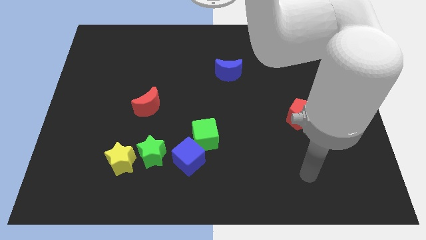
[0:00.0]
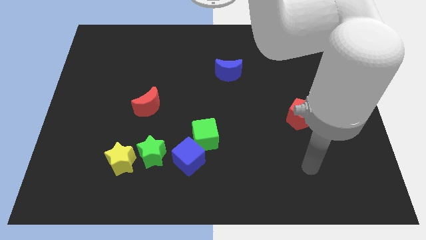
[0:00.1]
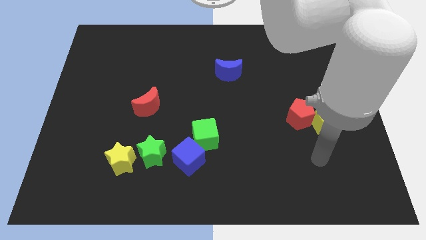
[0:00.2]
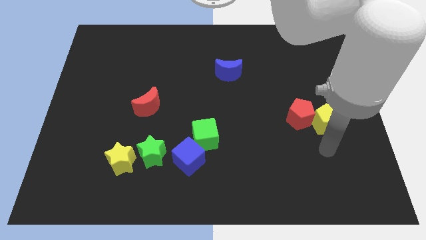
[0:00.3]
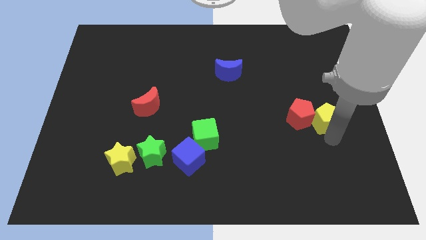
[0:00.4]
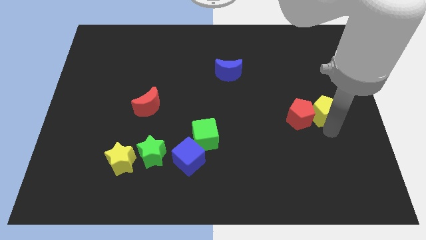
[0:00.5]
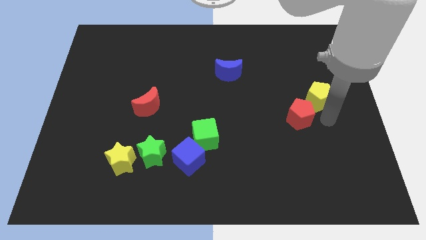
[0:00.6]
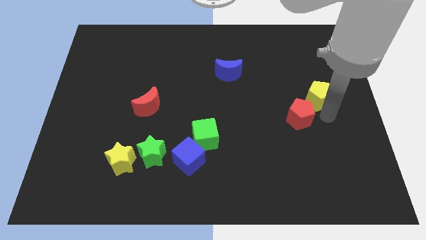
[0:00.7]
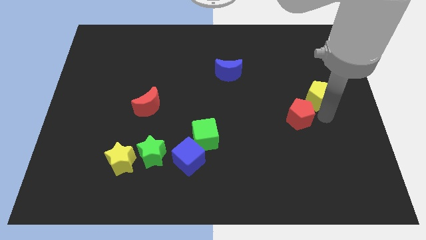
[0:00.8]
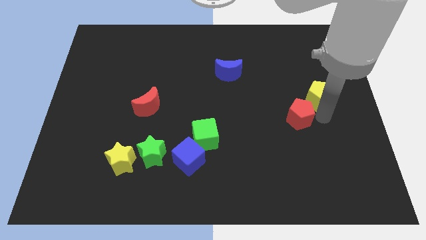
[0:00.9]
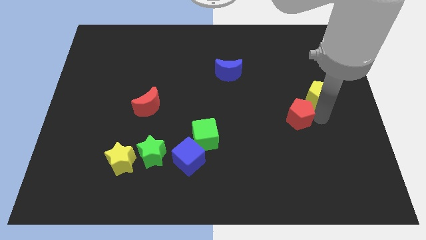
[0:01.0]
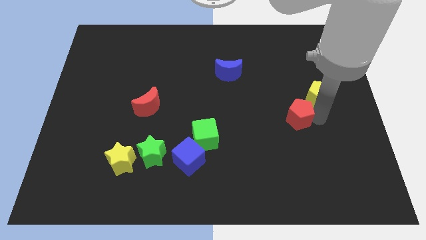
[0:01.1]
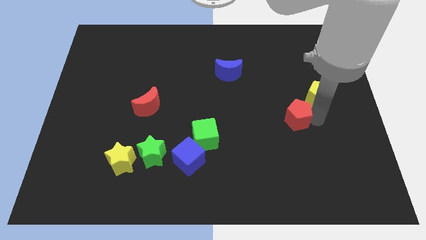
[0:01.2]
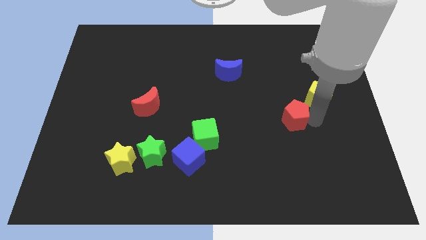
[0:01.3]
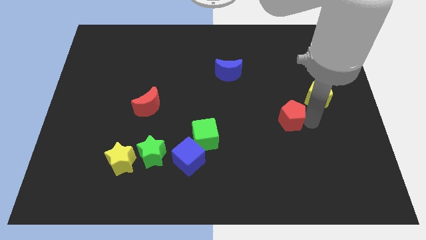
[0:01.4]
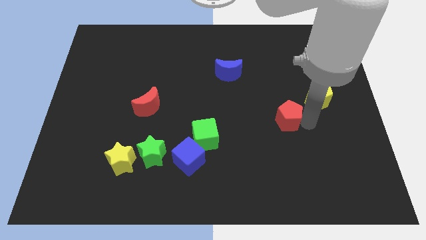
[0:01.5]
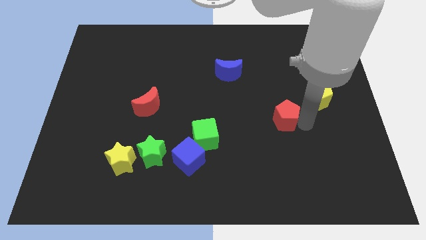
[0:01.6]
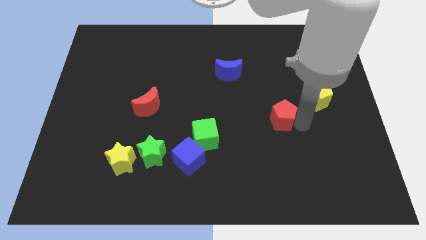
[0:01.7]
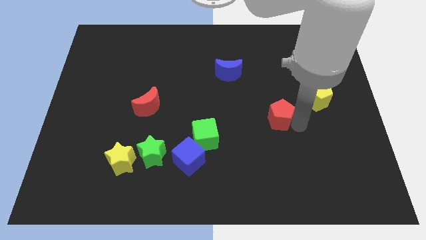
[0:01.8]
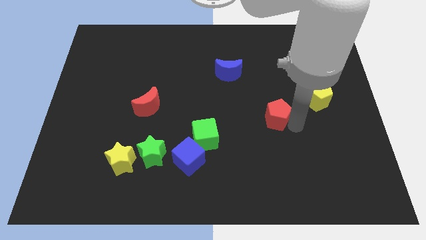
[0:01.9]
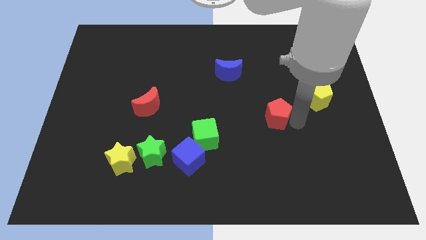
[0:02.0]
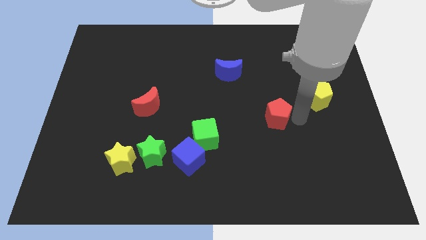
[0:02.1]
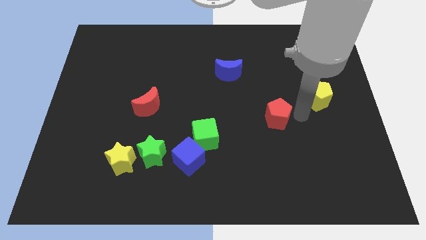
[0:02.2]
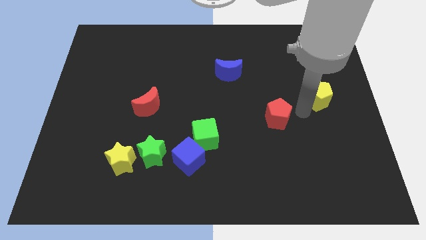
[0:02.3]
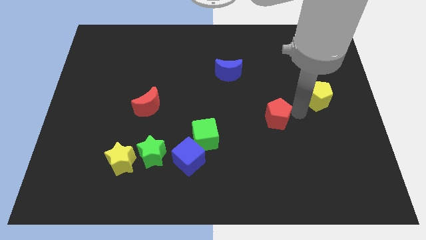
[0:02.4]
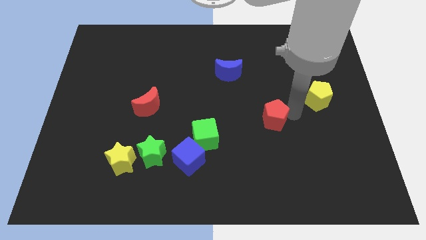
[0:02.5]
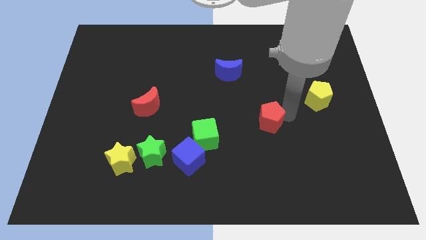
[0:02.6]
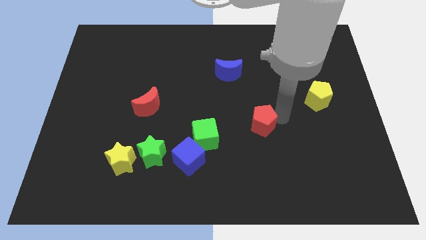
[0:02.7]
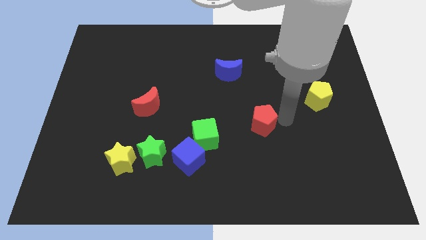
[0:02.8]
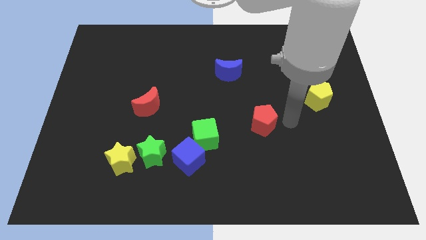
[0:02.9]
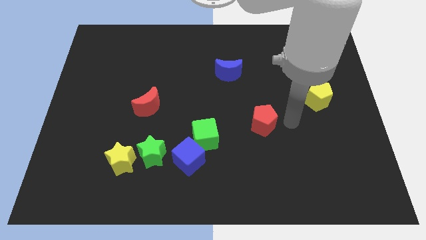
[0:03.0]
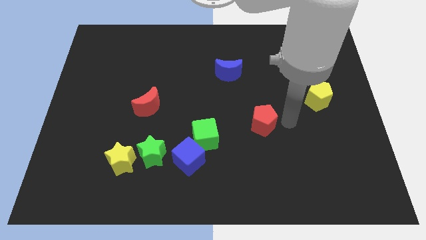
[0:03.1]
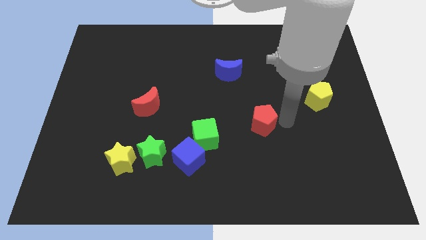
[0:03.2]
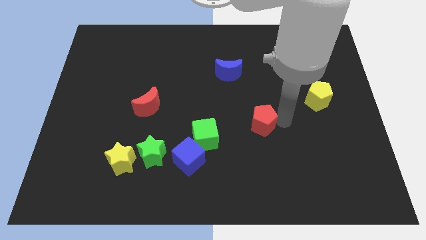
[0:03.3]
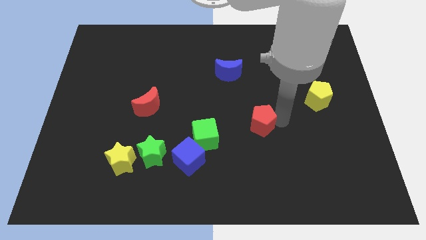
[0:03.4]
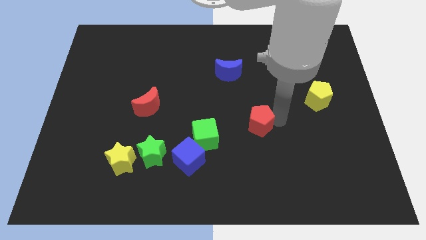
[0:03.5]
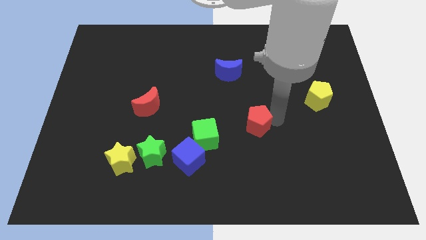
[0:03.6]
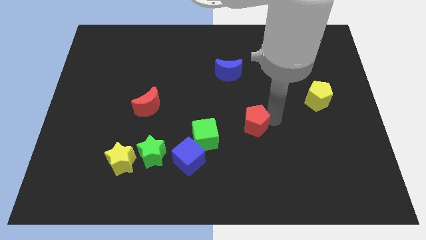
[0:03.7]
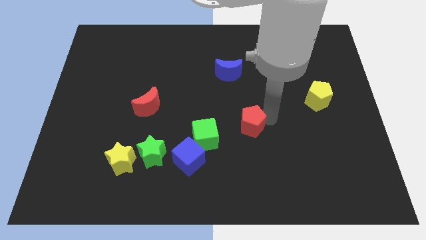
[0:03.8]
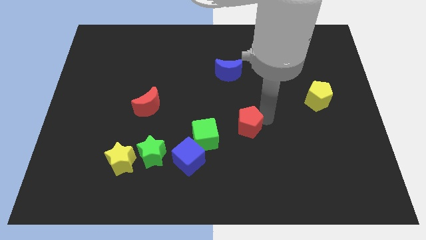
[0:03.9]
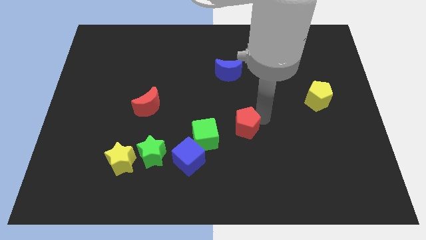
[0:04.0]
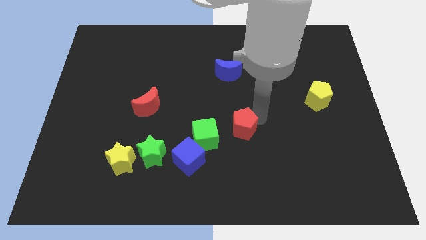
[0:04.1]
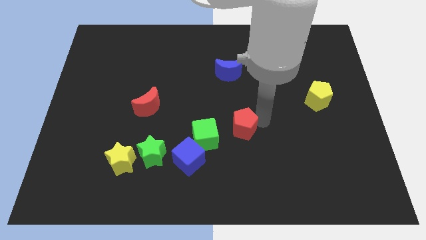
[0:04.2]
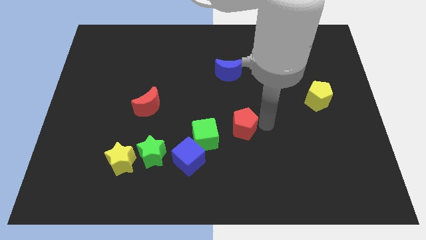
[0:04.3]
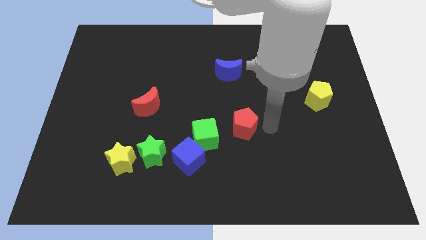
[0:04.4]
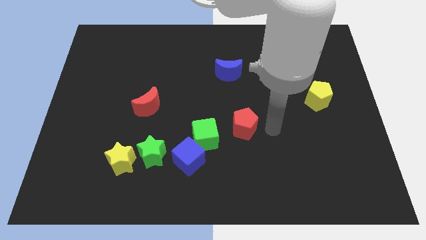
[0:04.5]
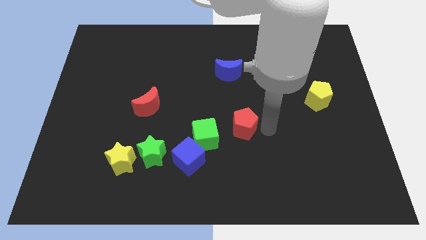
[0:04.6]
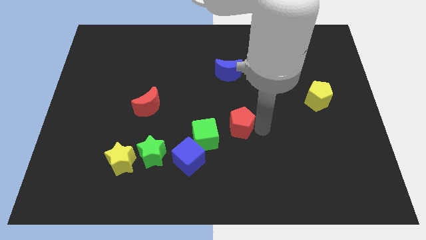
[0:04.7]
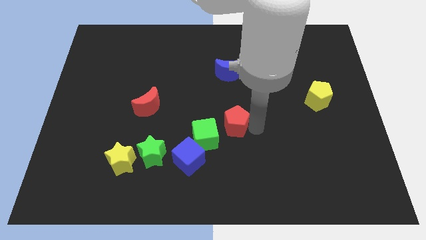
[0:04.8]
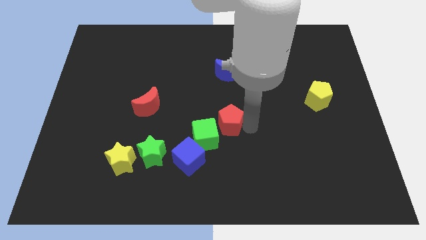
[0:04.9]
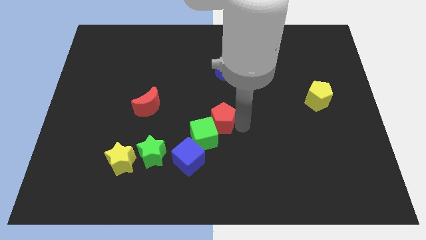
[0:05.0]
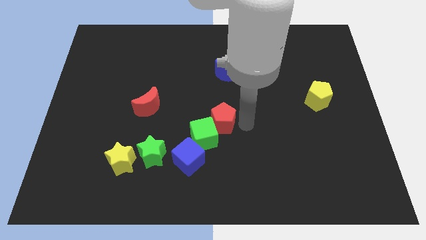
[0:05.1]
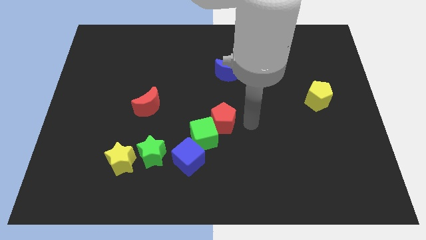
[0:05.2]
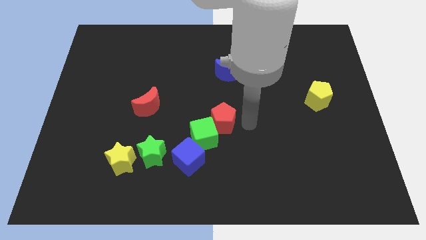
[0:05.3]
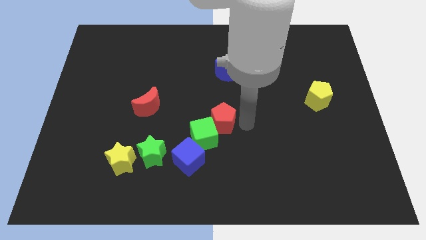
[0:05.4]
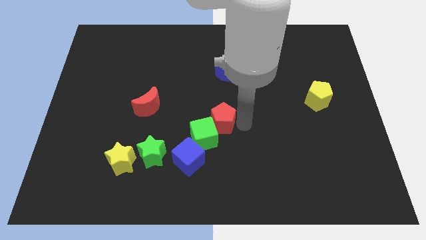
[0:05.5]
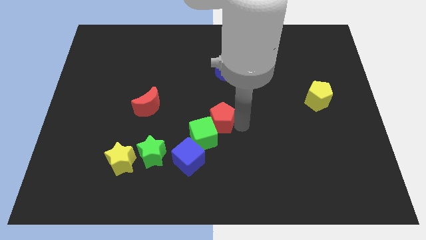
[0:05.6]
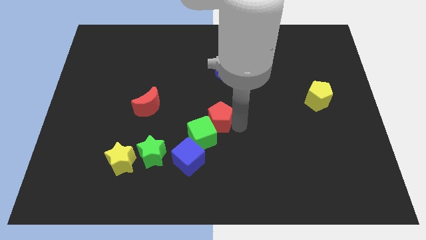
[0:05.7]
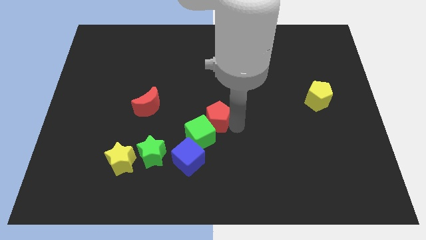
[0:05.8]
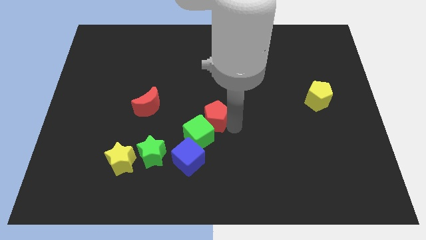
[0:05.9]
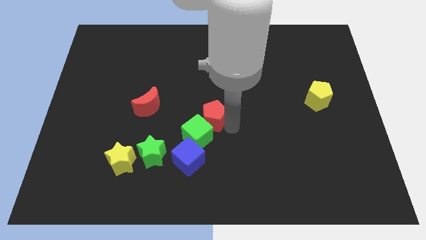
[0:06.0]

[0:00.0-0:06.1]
move the red pentagon to the left

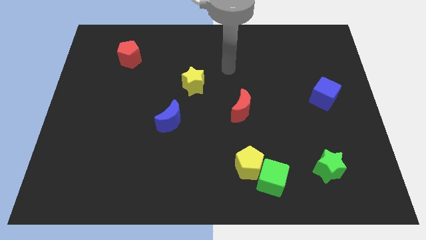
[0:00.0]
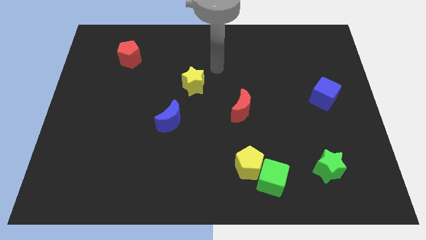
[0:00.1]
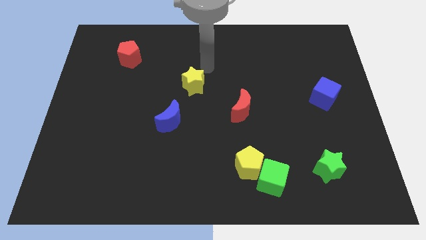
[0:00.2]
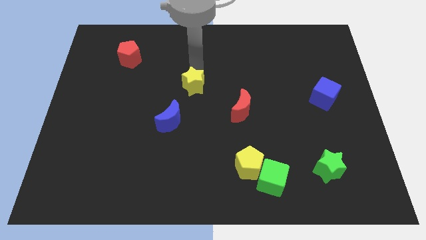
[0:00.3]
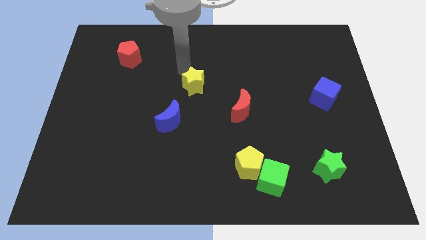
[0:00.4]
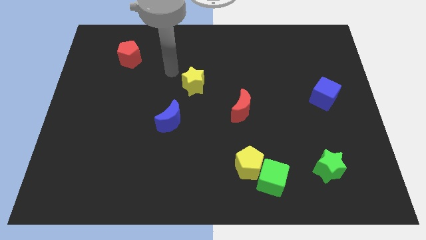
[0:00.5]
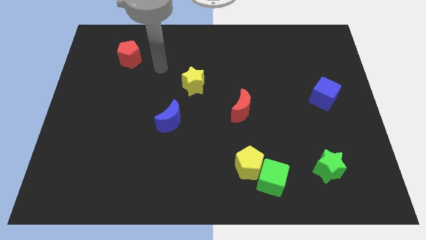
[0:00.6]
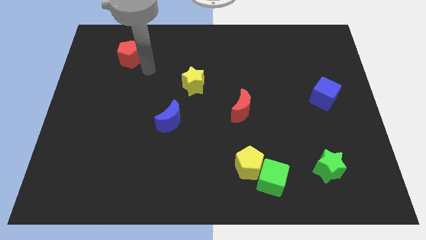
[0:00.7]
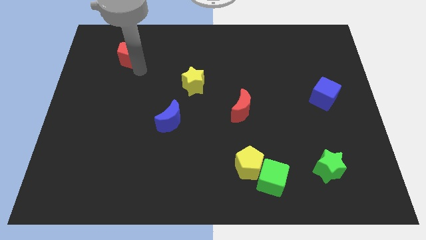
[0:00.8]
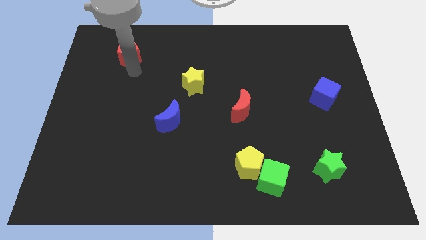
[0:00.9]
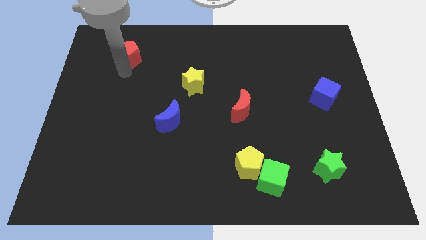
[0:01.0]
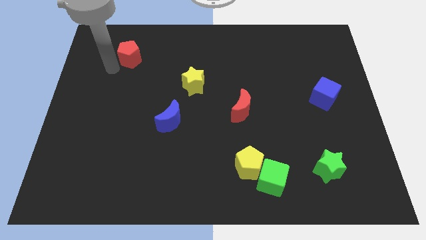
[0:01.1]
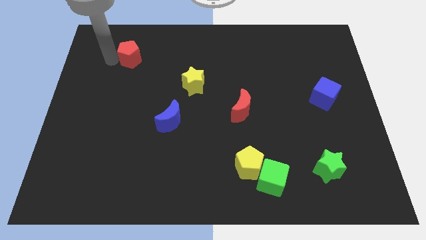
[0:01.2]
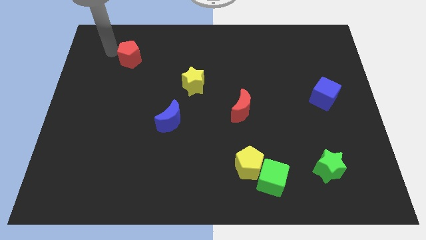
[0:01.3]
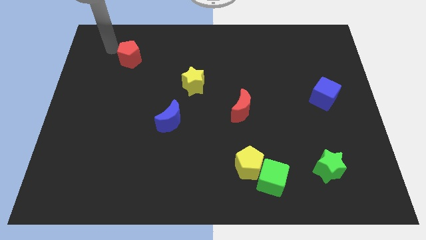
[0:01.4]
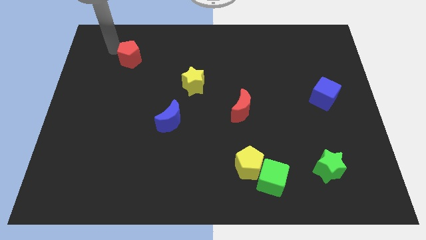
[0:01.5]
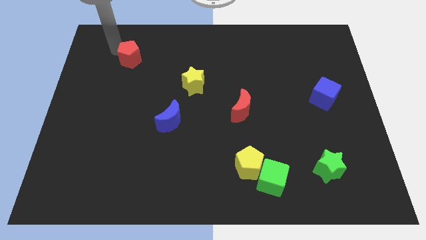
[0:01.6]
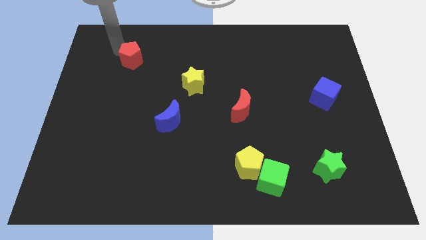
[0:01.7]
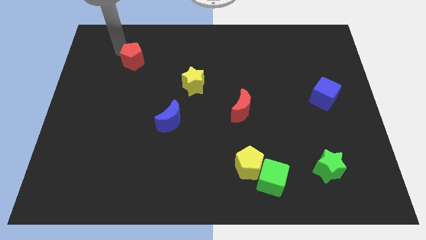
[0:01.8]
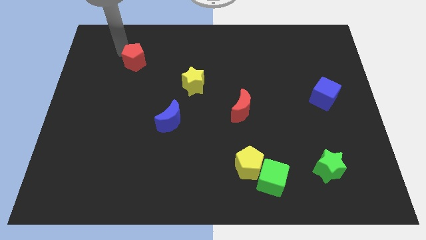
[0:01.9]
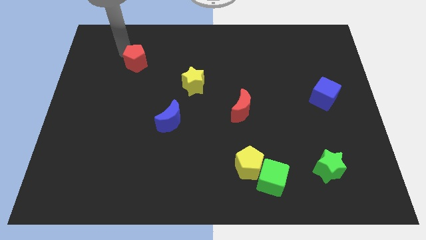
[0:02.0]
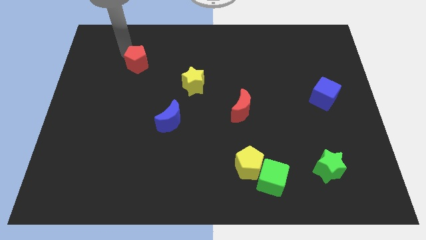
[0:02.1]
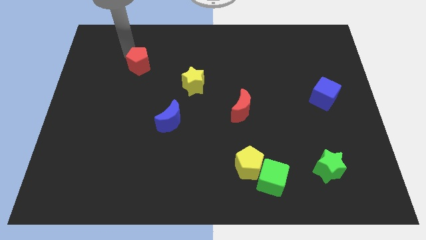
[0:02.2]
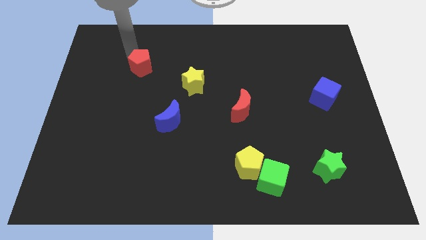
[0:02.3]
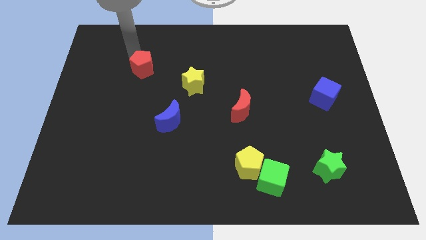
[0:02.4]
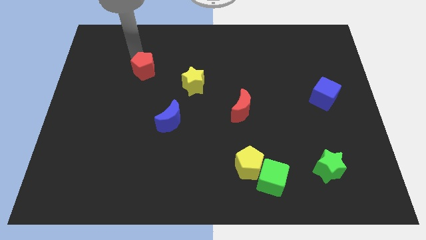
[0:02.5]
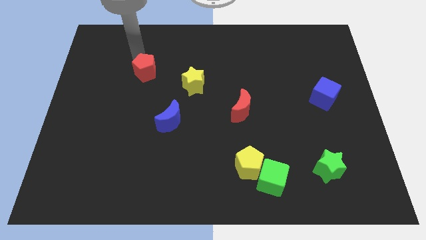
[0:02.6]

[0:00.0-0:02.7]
move the red pentagon a little bit downwards and right
